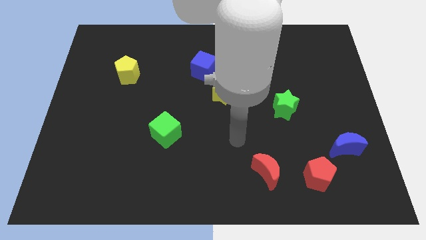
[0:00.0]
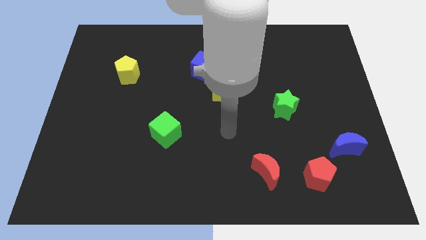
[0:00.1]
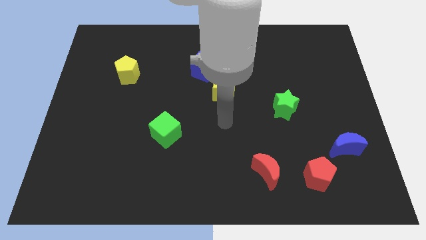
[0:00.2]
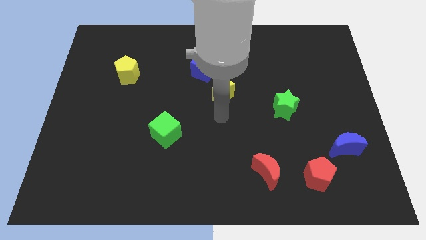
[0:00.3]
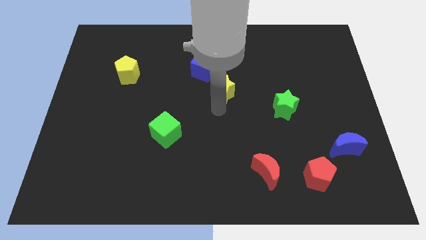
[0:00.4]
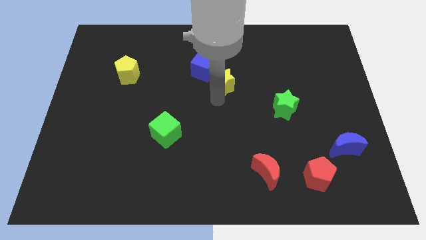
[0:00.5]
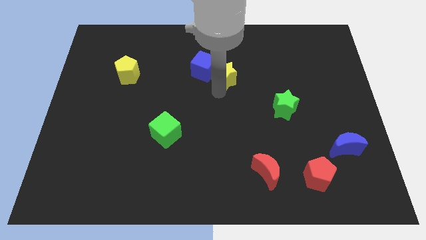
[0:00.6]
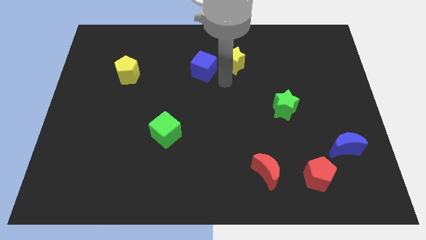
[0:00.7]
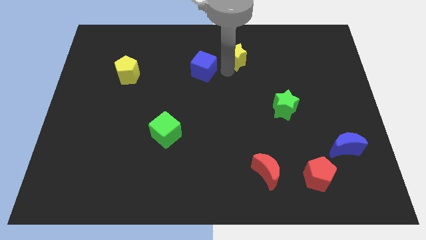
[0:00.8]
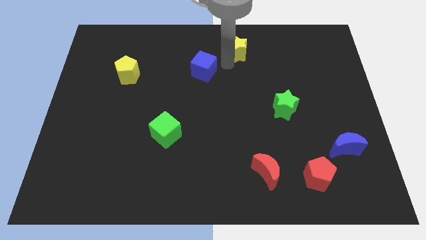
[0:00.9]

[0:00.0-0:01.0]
move the blue cube away from the yellow star

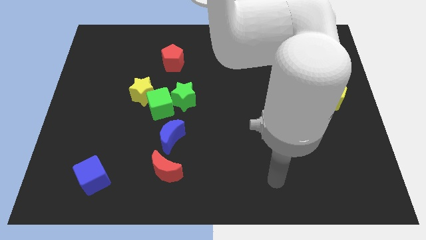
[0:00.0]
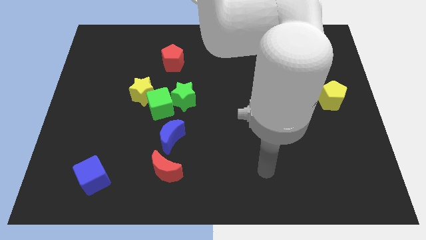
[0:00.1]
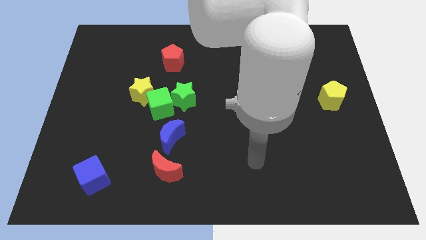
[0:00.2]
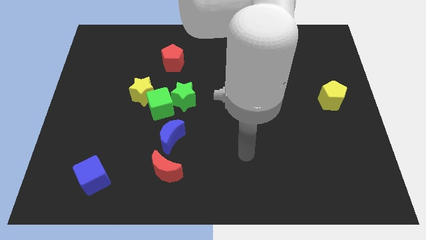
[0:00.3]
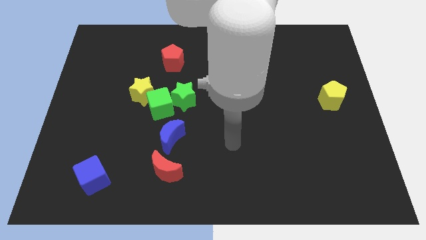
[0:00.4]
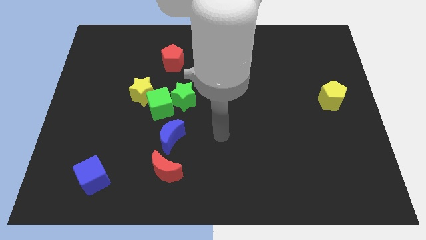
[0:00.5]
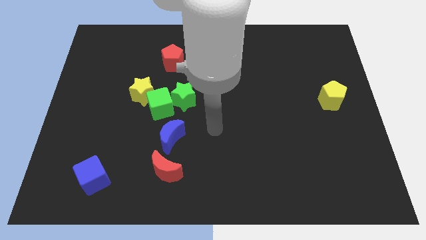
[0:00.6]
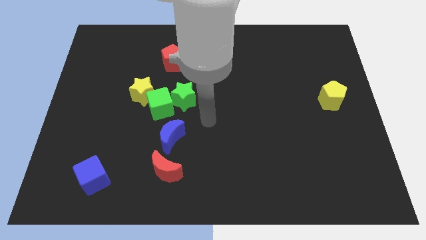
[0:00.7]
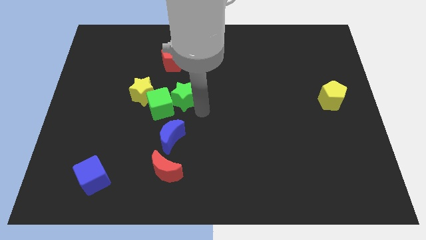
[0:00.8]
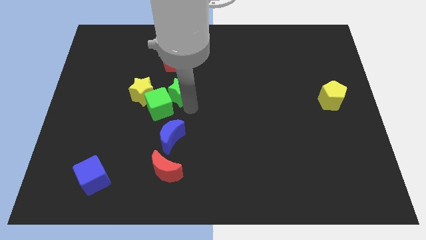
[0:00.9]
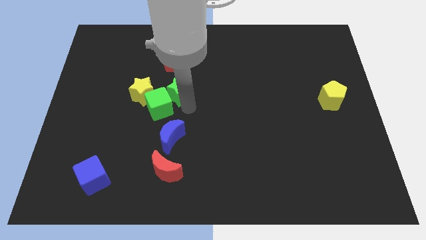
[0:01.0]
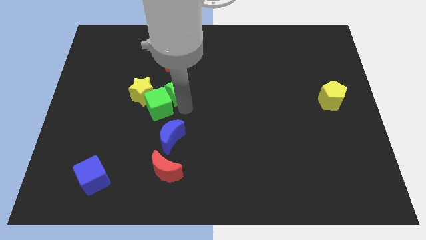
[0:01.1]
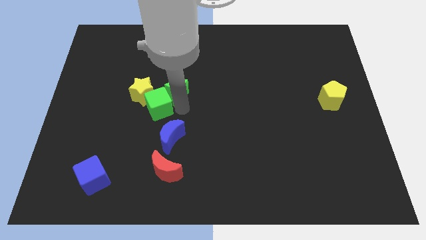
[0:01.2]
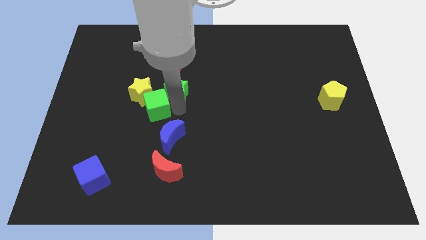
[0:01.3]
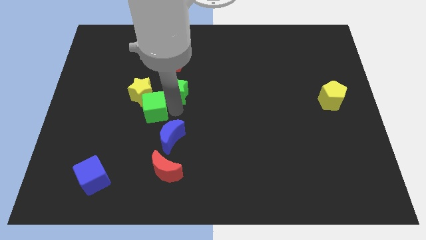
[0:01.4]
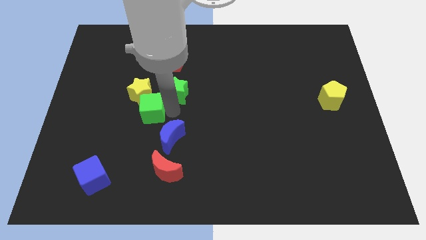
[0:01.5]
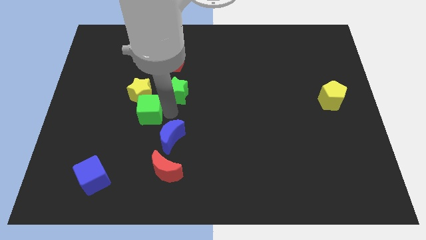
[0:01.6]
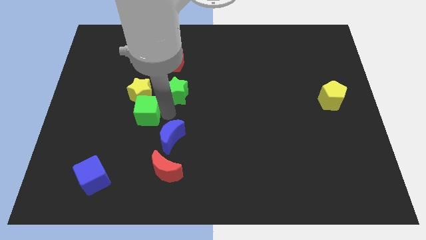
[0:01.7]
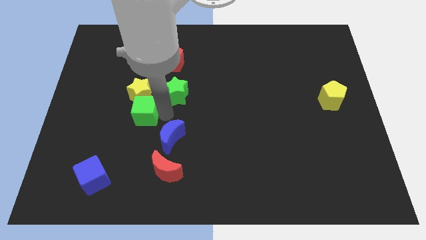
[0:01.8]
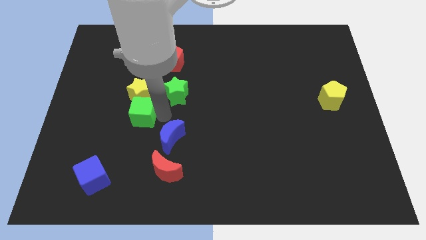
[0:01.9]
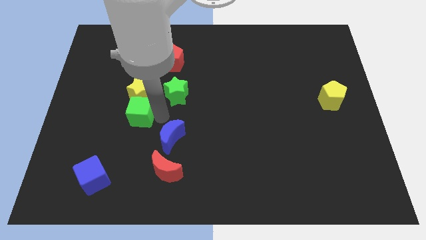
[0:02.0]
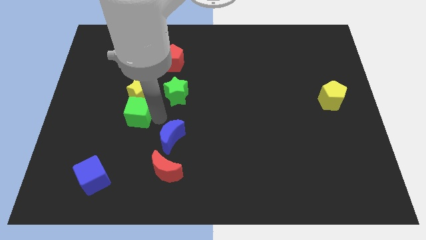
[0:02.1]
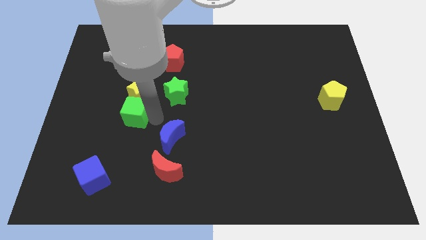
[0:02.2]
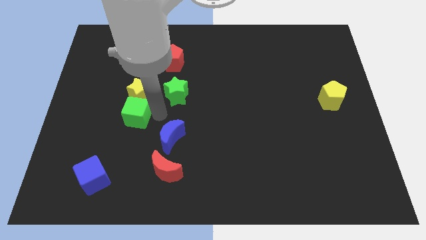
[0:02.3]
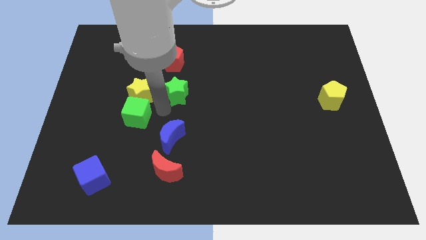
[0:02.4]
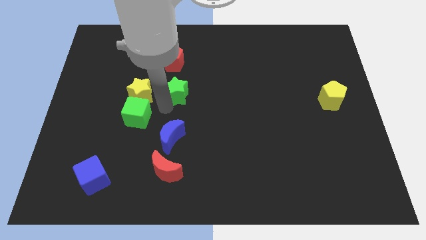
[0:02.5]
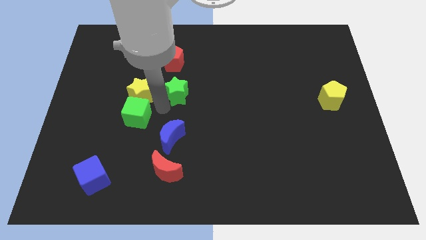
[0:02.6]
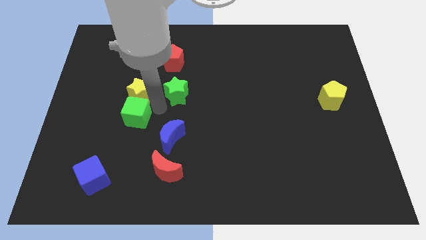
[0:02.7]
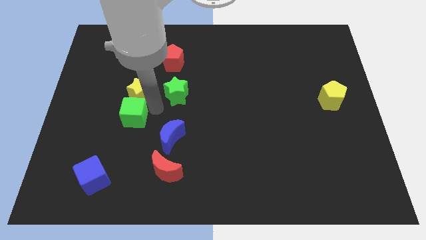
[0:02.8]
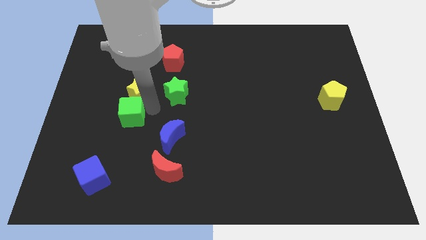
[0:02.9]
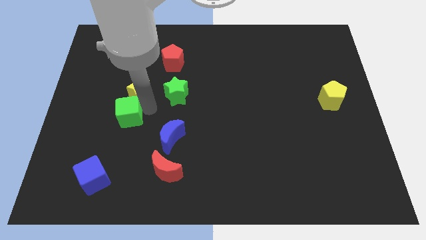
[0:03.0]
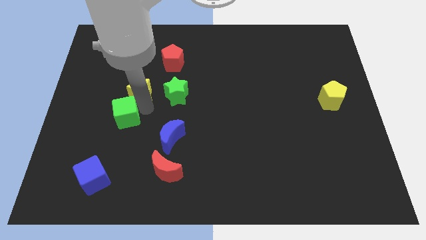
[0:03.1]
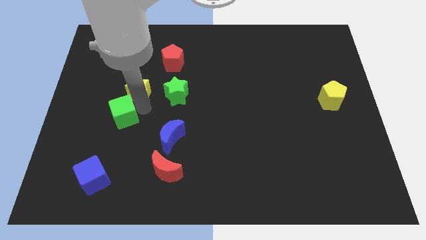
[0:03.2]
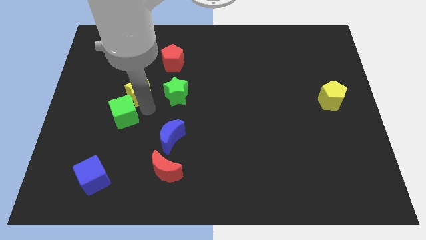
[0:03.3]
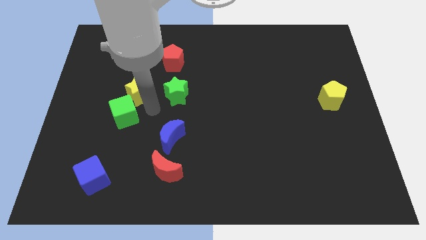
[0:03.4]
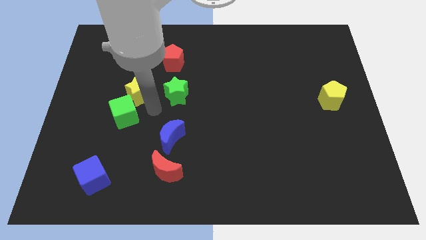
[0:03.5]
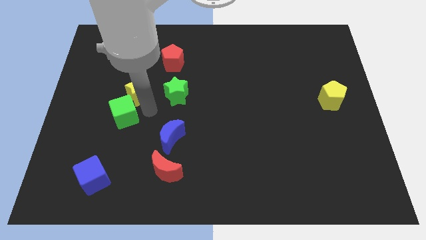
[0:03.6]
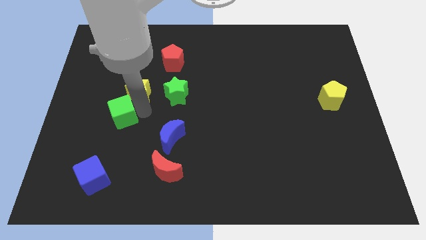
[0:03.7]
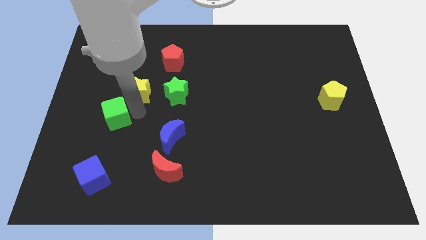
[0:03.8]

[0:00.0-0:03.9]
move the green cube away from the green star, yellow star, and blue moon

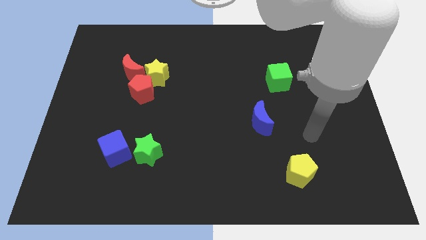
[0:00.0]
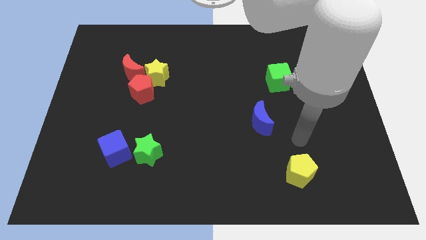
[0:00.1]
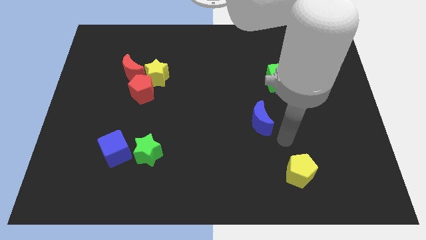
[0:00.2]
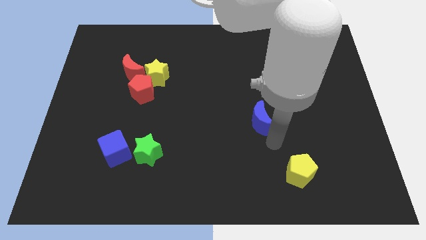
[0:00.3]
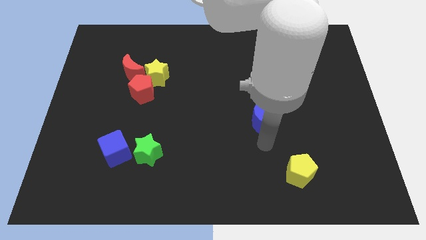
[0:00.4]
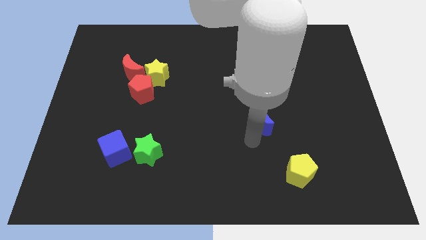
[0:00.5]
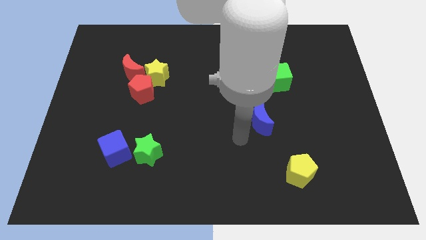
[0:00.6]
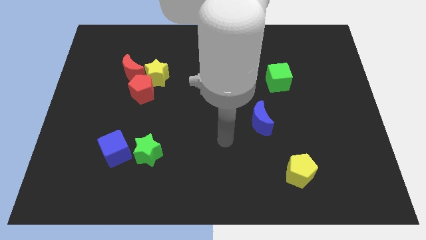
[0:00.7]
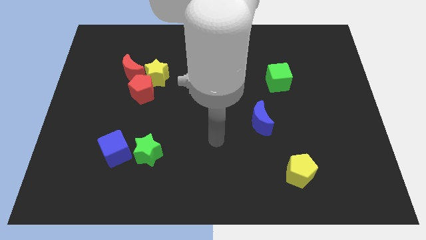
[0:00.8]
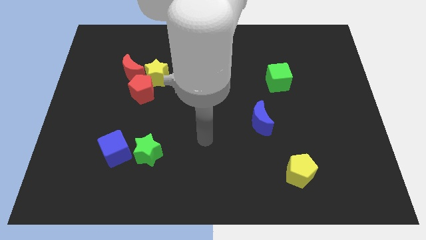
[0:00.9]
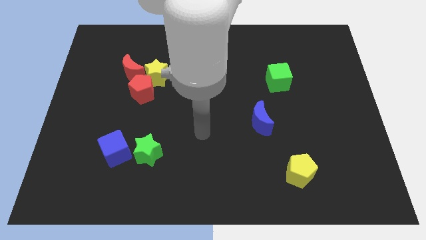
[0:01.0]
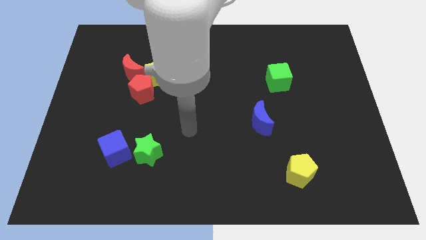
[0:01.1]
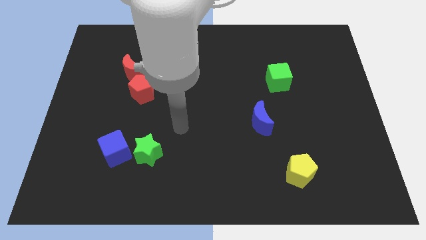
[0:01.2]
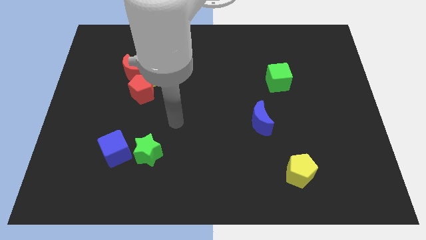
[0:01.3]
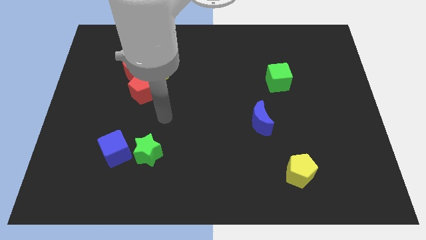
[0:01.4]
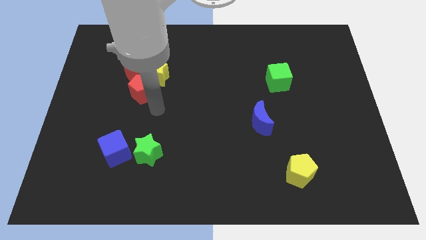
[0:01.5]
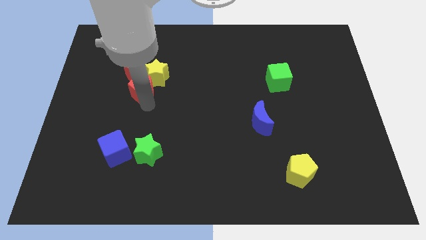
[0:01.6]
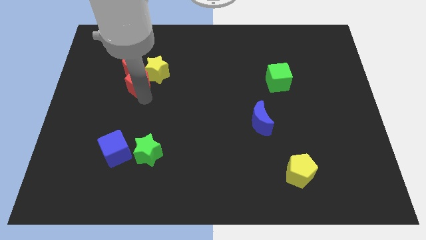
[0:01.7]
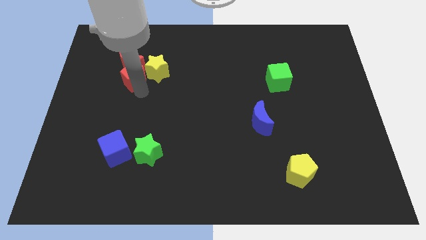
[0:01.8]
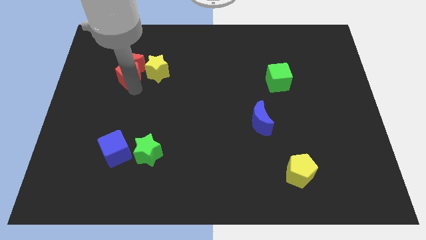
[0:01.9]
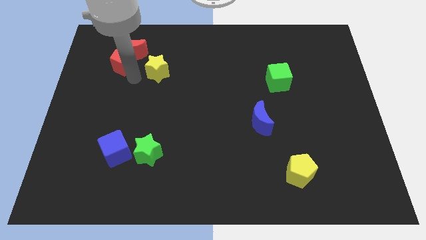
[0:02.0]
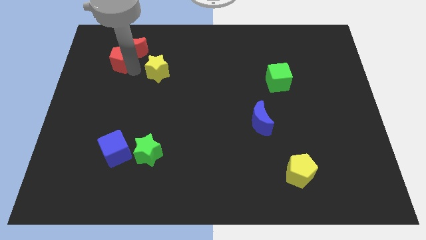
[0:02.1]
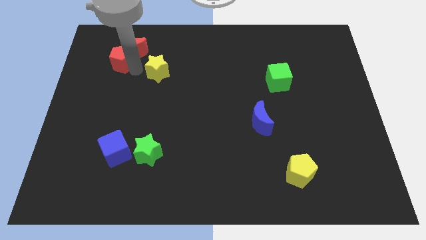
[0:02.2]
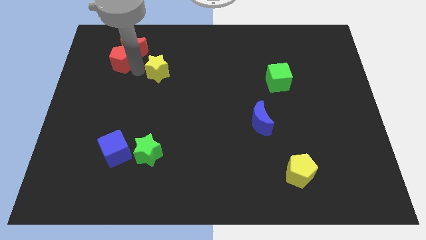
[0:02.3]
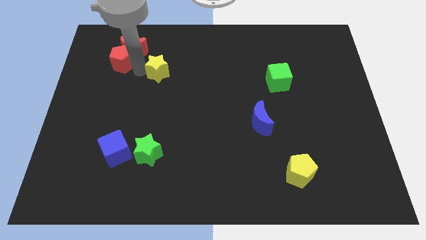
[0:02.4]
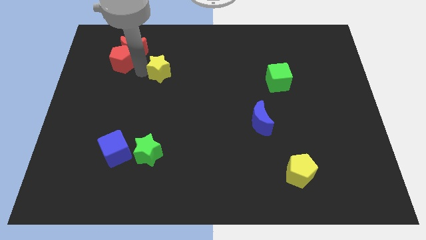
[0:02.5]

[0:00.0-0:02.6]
move the yellow star away from the red pentagon and red moon

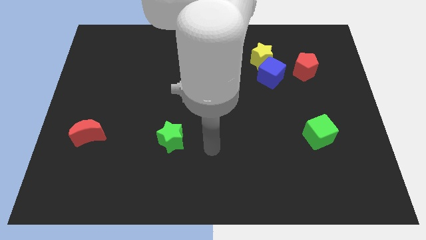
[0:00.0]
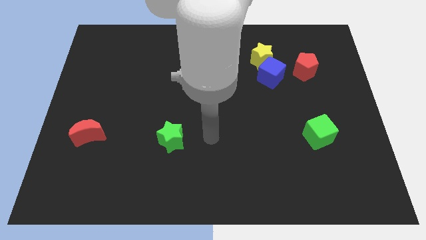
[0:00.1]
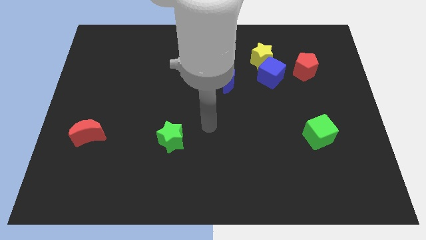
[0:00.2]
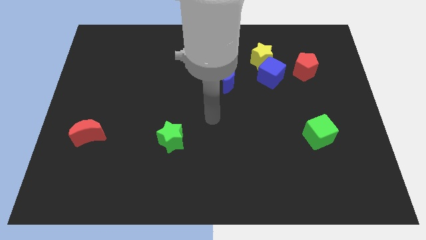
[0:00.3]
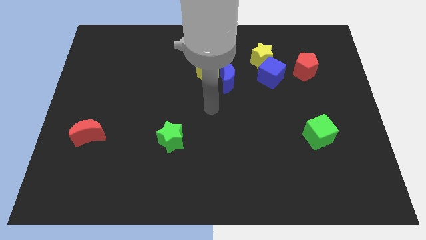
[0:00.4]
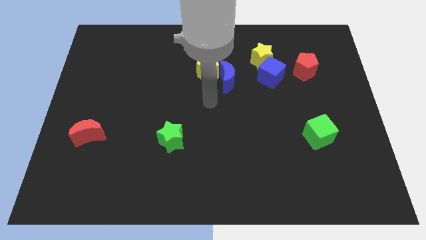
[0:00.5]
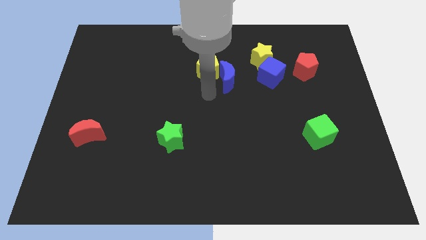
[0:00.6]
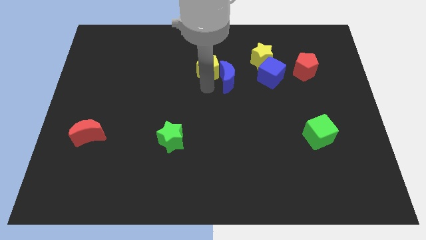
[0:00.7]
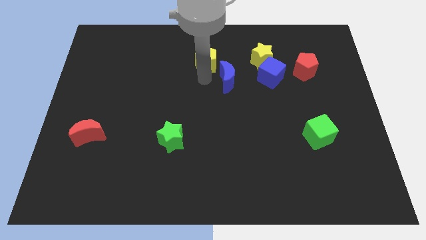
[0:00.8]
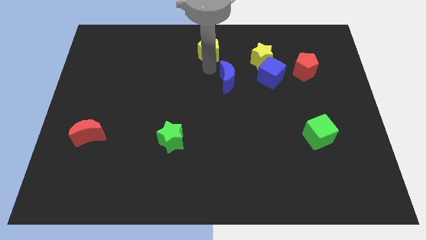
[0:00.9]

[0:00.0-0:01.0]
separate the blue moon from the yellow pentagon

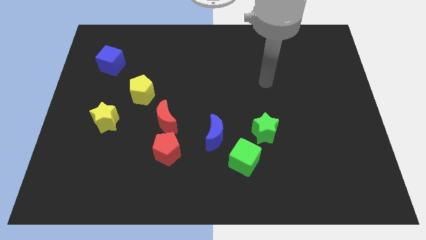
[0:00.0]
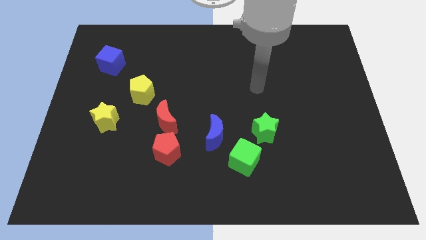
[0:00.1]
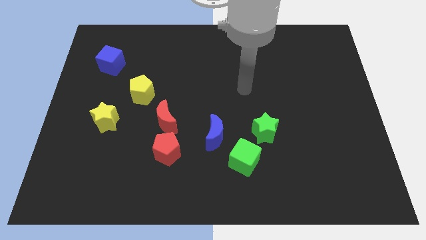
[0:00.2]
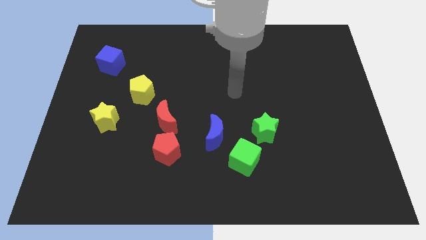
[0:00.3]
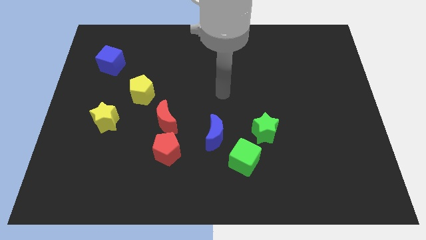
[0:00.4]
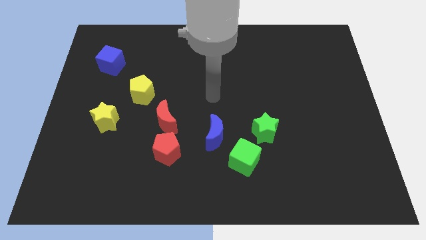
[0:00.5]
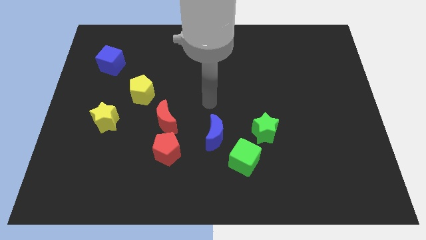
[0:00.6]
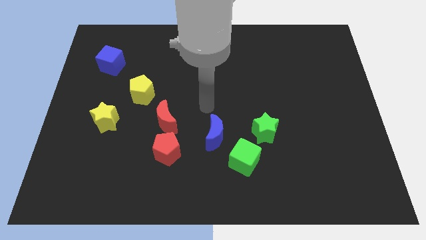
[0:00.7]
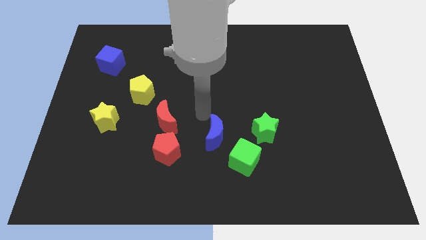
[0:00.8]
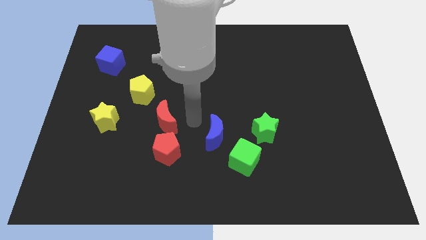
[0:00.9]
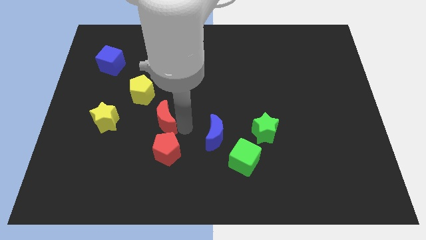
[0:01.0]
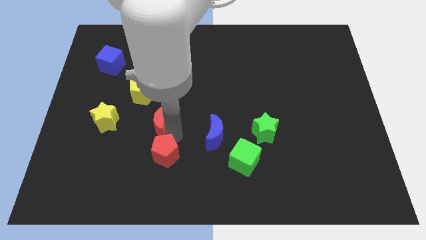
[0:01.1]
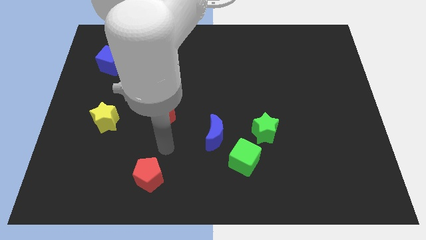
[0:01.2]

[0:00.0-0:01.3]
move the red moon away from the red pentagon
